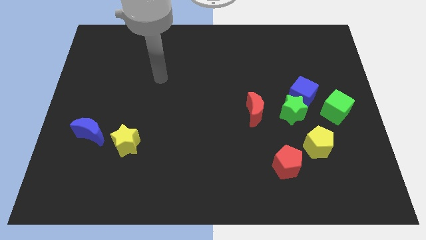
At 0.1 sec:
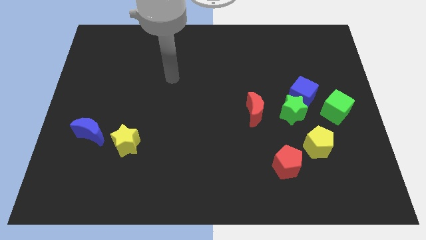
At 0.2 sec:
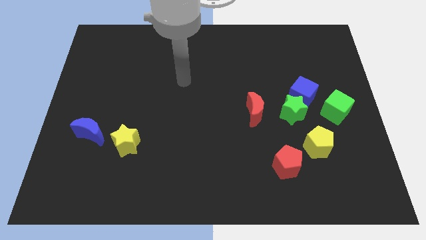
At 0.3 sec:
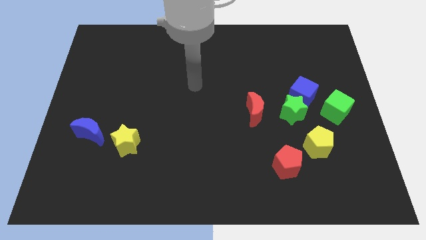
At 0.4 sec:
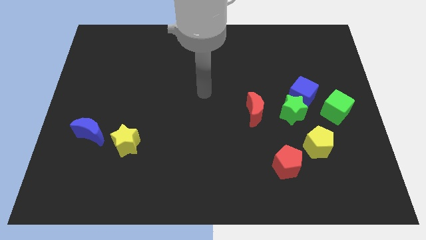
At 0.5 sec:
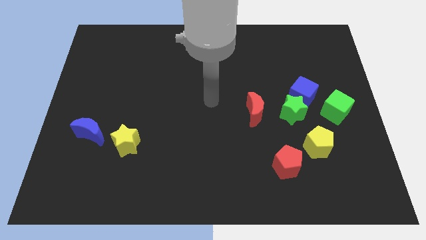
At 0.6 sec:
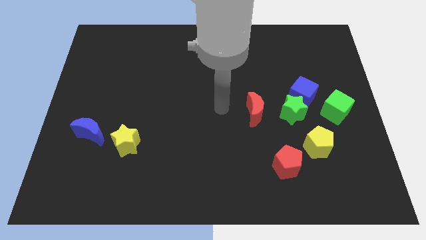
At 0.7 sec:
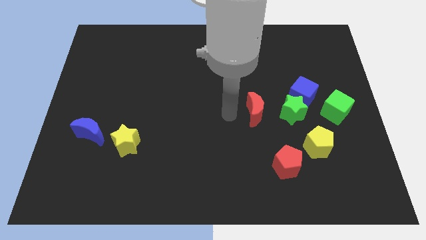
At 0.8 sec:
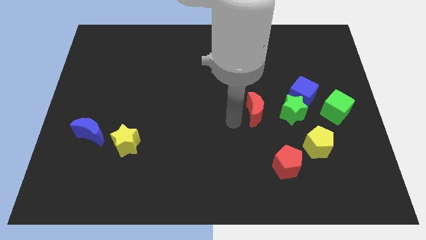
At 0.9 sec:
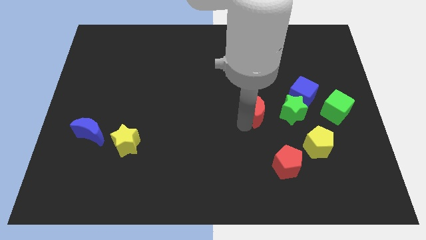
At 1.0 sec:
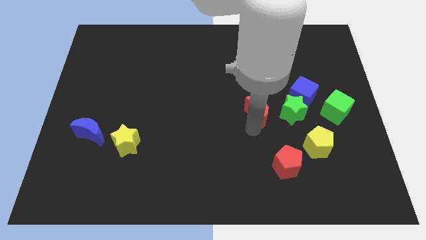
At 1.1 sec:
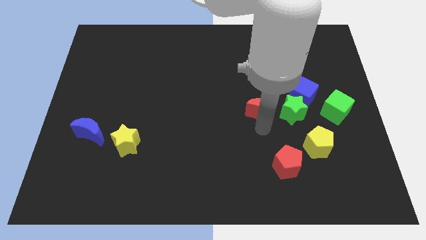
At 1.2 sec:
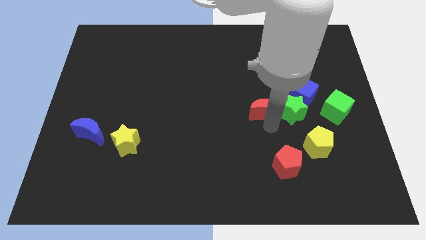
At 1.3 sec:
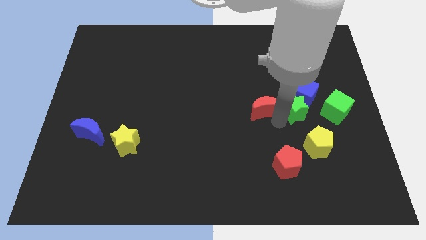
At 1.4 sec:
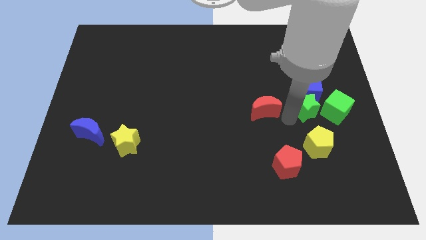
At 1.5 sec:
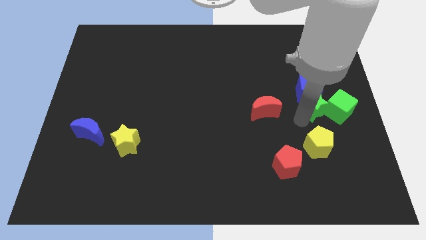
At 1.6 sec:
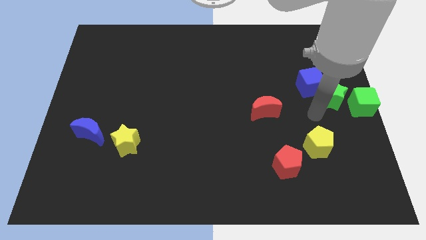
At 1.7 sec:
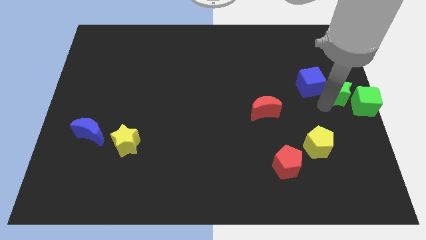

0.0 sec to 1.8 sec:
move the blue cube away from the green star and green cube

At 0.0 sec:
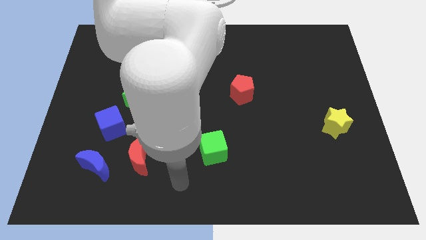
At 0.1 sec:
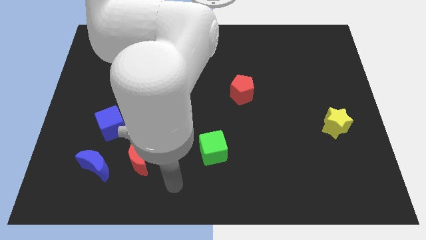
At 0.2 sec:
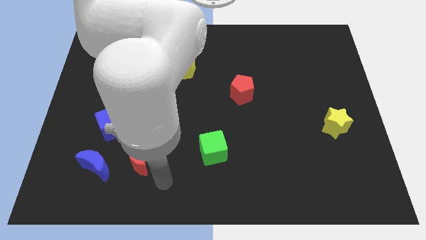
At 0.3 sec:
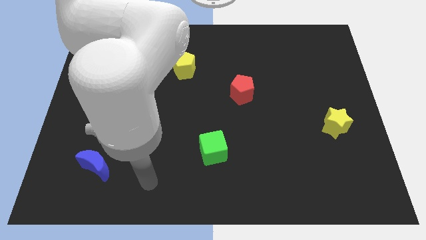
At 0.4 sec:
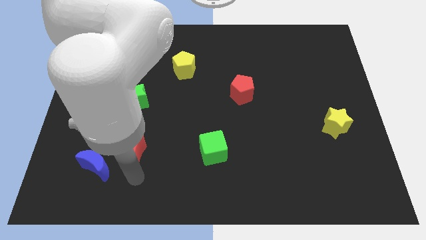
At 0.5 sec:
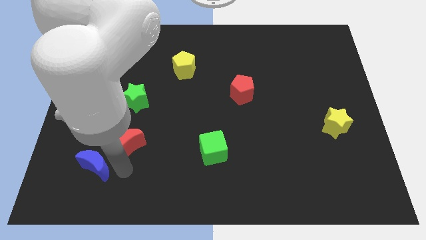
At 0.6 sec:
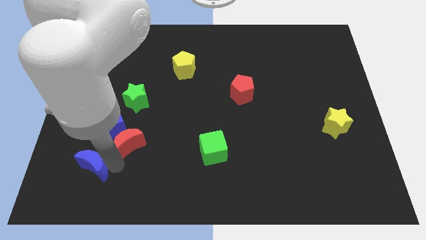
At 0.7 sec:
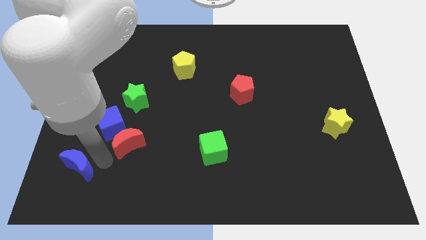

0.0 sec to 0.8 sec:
move the red moon away from the blue moon

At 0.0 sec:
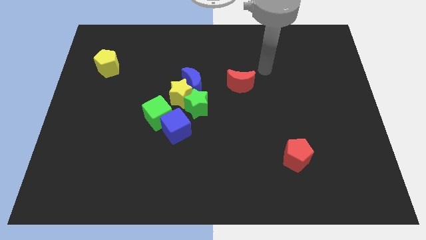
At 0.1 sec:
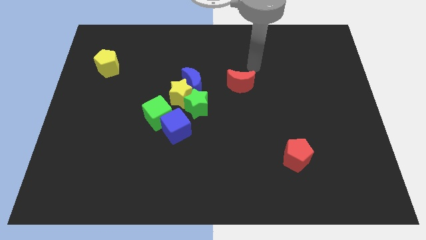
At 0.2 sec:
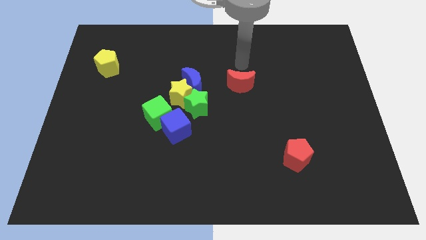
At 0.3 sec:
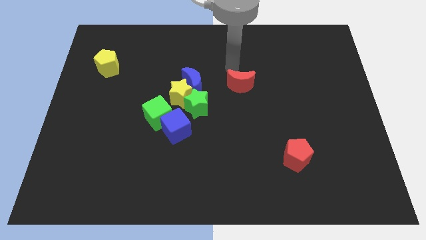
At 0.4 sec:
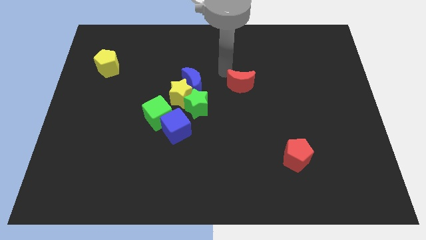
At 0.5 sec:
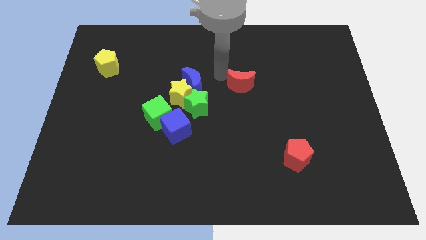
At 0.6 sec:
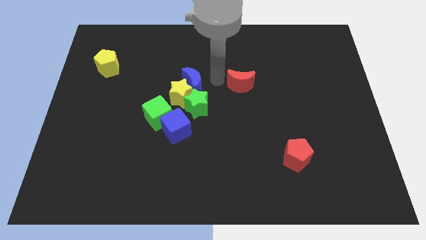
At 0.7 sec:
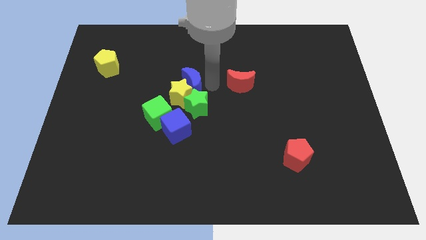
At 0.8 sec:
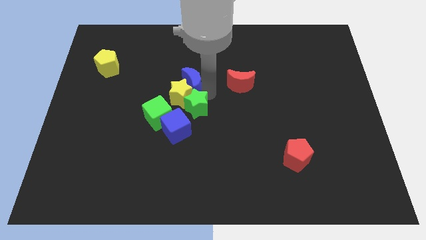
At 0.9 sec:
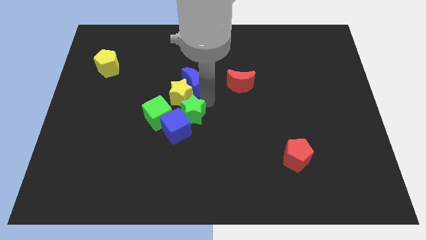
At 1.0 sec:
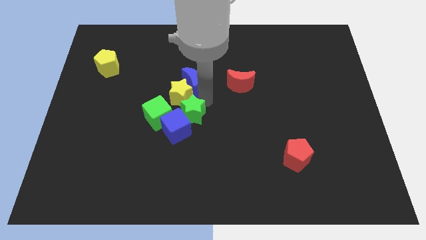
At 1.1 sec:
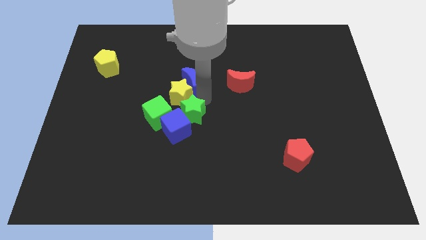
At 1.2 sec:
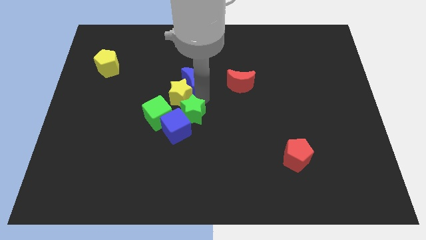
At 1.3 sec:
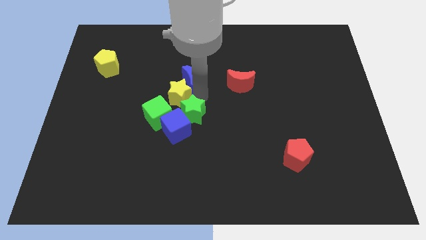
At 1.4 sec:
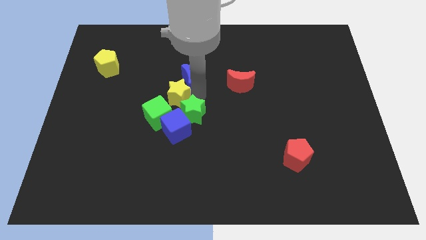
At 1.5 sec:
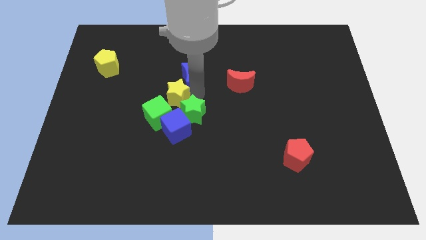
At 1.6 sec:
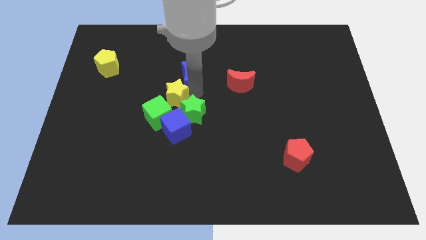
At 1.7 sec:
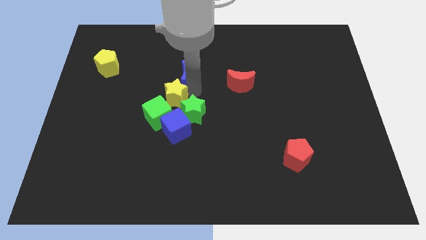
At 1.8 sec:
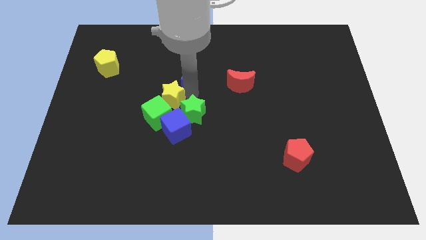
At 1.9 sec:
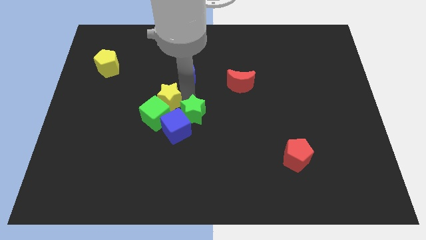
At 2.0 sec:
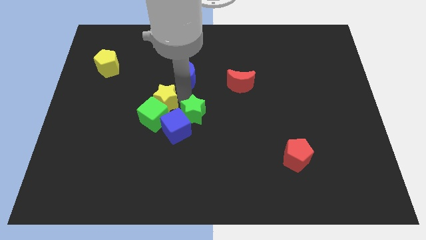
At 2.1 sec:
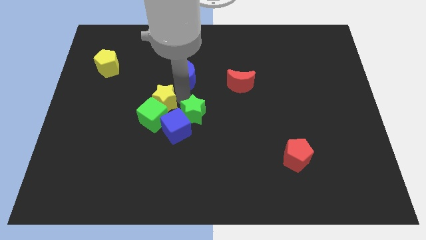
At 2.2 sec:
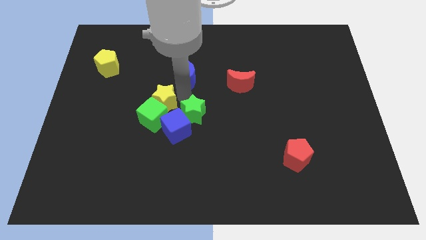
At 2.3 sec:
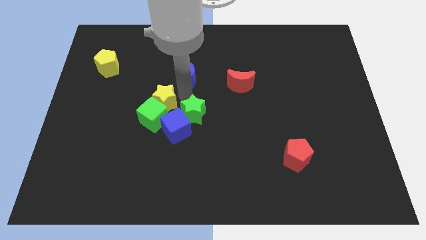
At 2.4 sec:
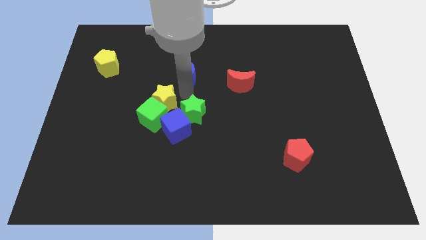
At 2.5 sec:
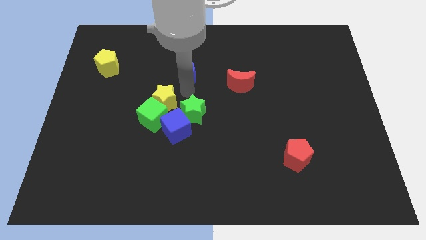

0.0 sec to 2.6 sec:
move the blue moon away from the yellow star and green star

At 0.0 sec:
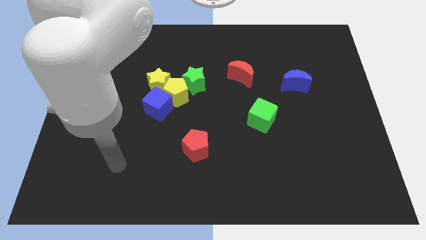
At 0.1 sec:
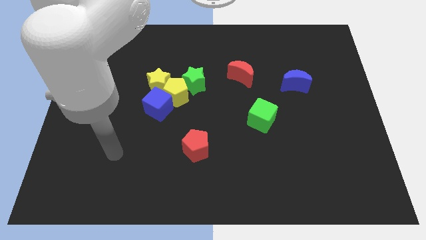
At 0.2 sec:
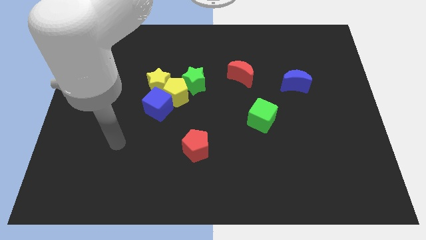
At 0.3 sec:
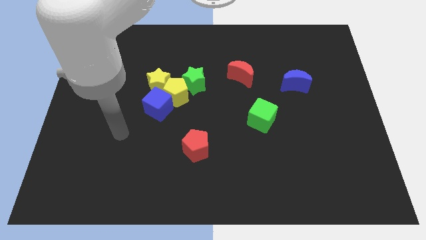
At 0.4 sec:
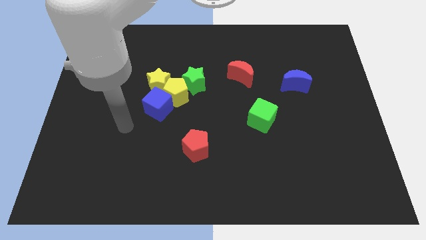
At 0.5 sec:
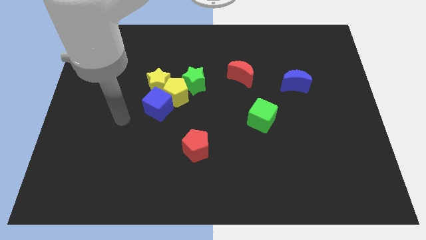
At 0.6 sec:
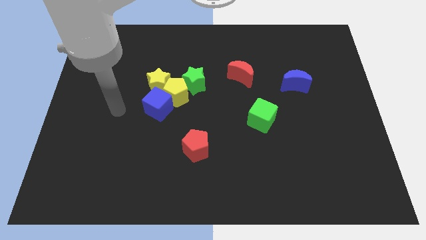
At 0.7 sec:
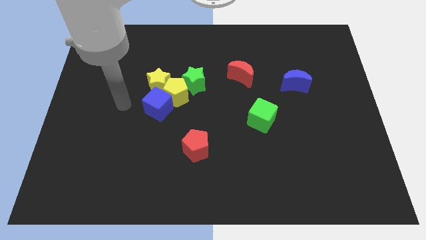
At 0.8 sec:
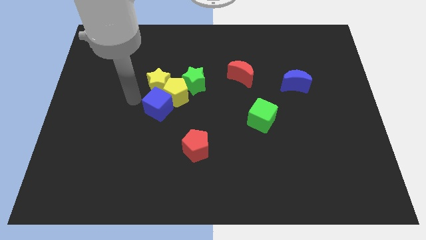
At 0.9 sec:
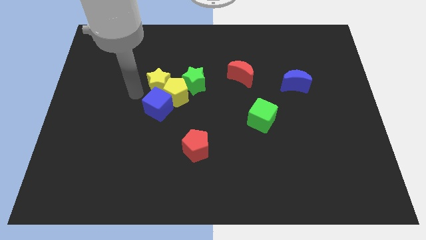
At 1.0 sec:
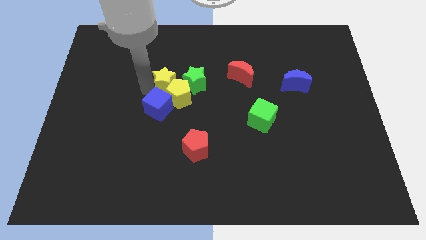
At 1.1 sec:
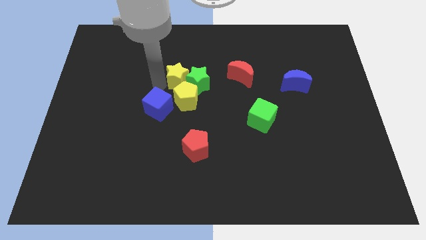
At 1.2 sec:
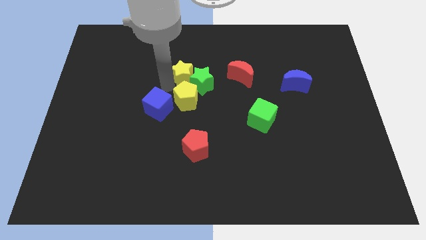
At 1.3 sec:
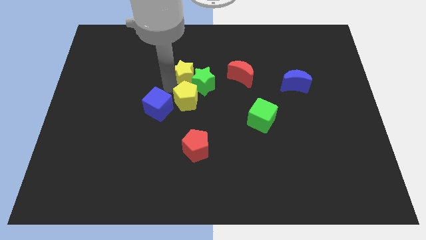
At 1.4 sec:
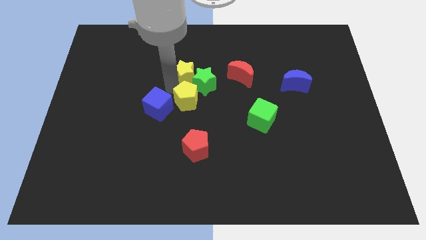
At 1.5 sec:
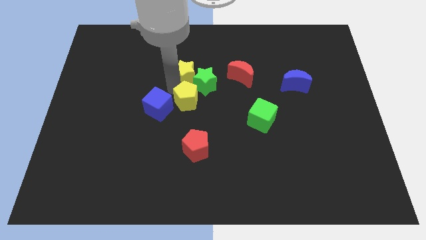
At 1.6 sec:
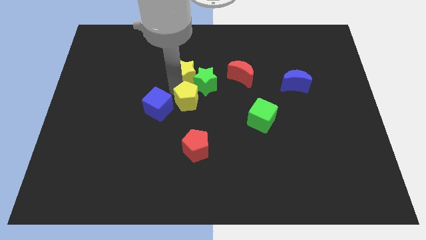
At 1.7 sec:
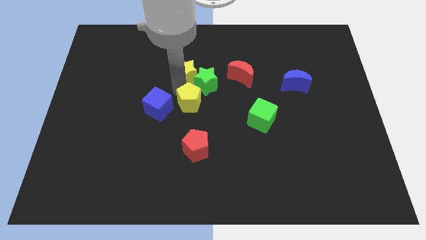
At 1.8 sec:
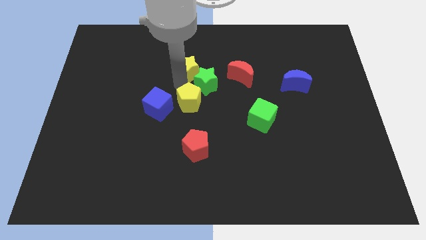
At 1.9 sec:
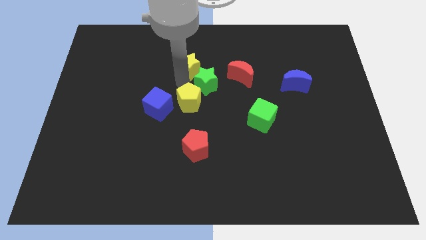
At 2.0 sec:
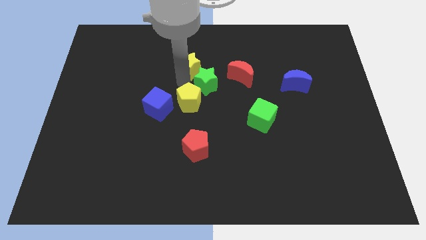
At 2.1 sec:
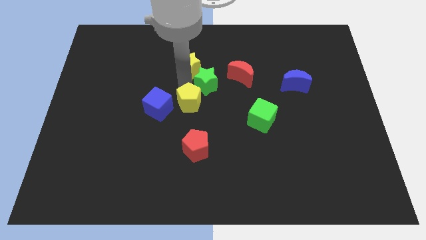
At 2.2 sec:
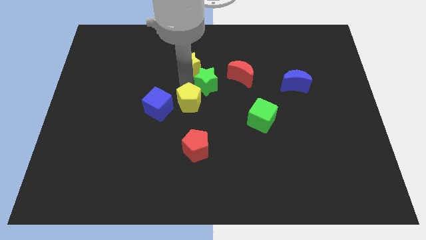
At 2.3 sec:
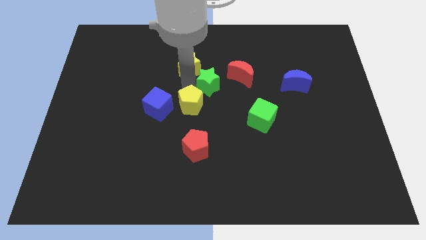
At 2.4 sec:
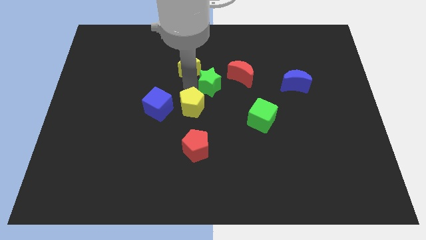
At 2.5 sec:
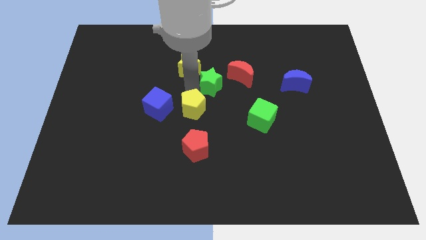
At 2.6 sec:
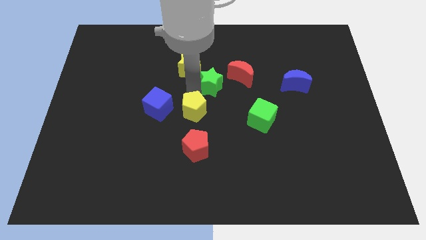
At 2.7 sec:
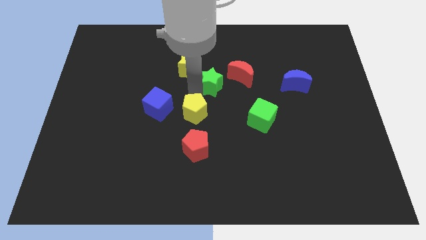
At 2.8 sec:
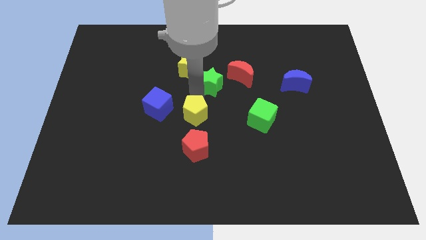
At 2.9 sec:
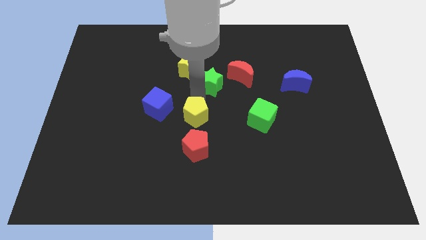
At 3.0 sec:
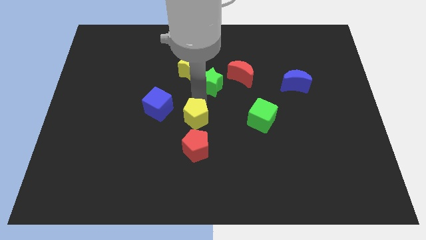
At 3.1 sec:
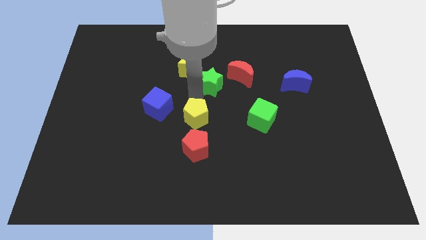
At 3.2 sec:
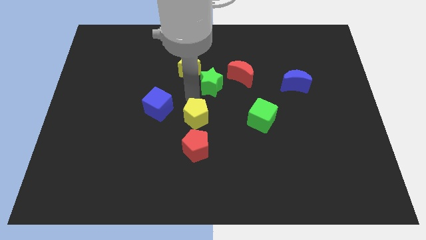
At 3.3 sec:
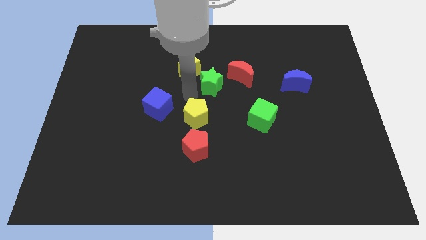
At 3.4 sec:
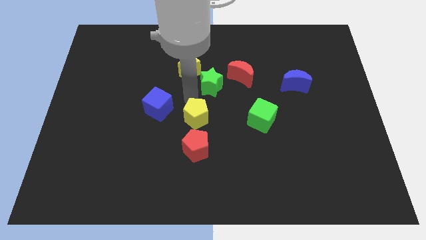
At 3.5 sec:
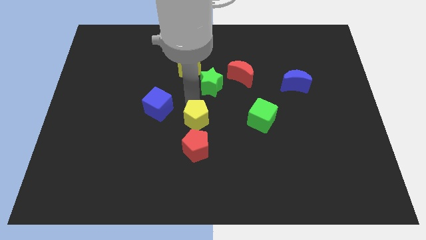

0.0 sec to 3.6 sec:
separate the yellow pentagon from the group of blocks

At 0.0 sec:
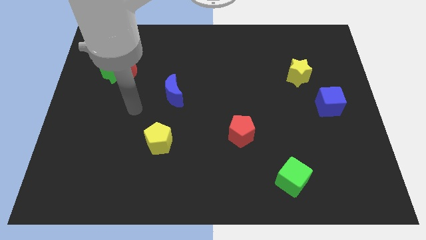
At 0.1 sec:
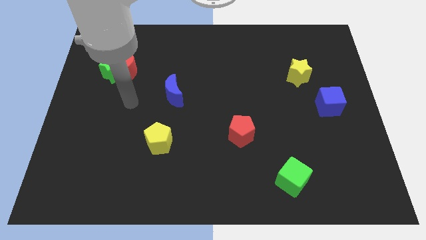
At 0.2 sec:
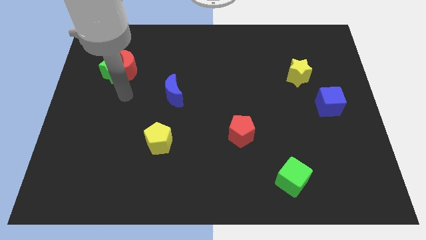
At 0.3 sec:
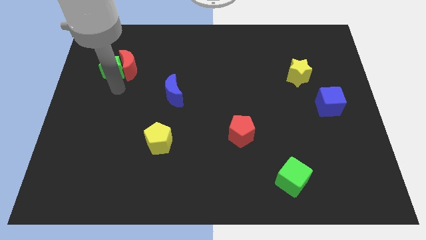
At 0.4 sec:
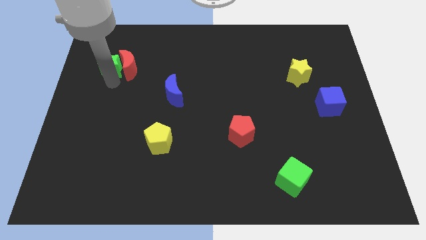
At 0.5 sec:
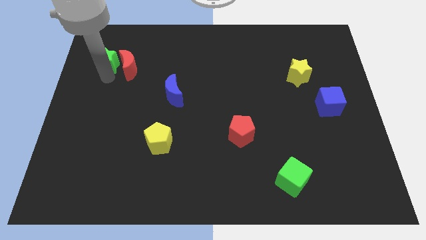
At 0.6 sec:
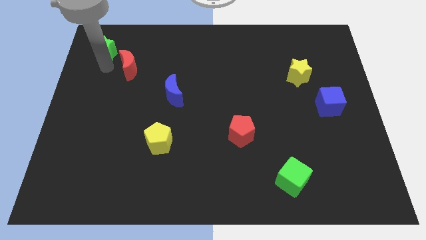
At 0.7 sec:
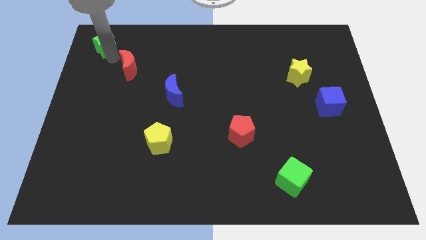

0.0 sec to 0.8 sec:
separate the red moon from the green star
